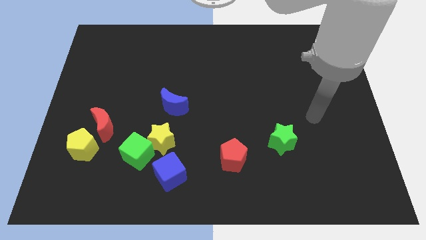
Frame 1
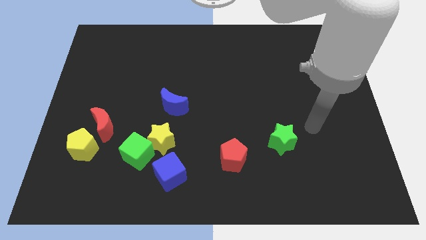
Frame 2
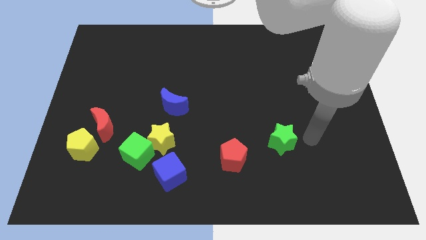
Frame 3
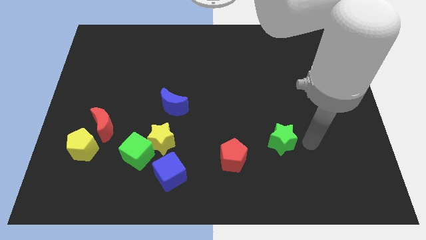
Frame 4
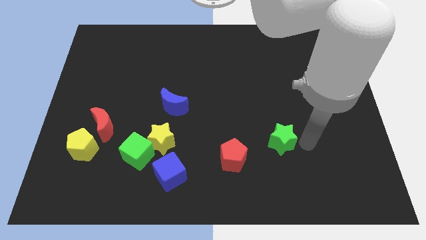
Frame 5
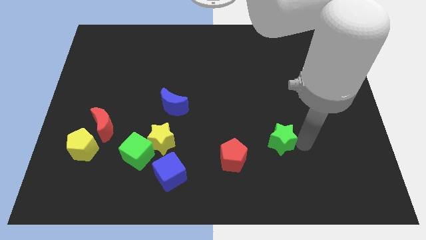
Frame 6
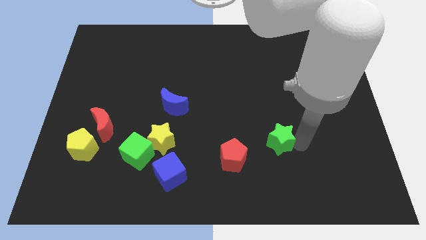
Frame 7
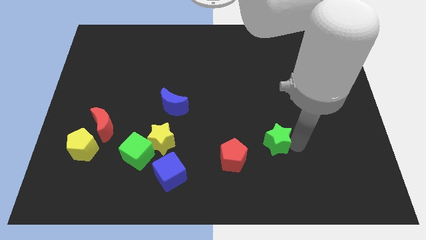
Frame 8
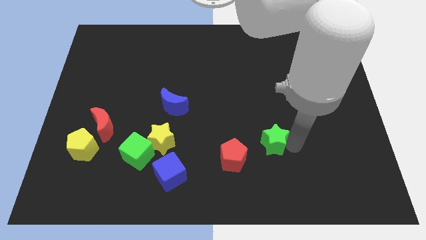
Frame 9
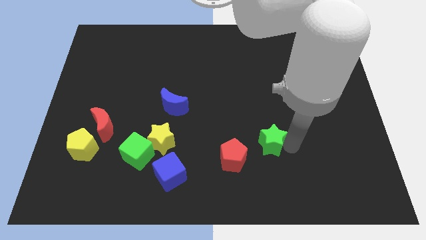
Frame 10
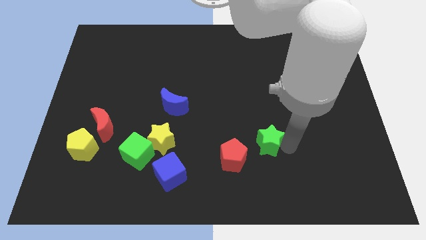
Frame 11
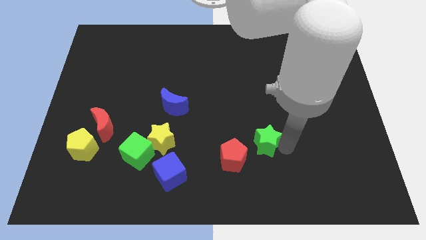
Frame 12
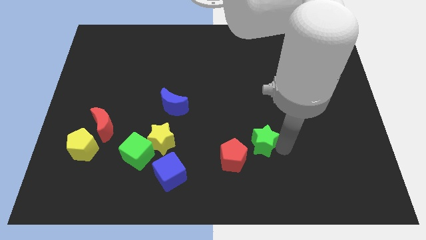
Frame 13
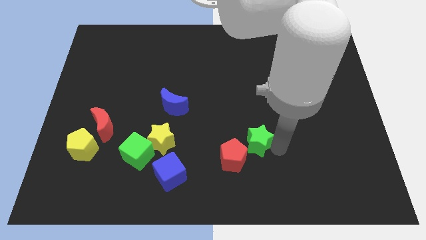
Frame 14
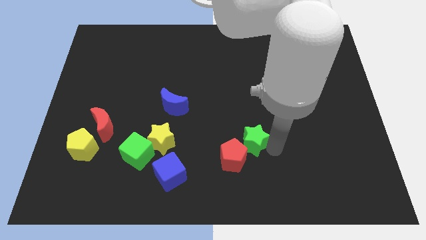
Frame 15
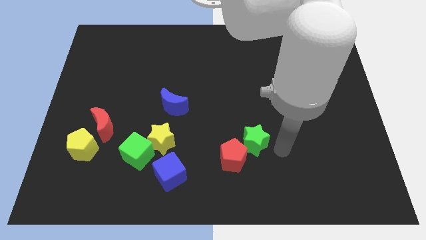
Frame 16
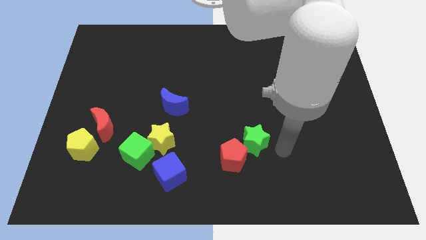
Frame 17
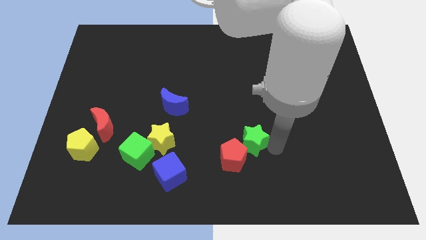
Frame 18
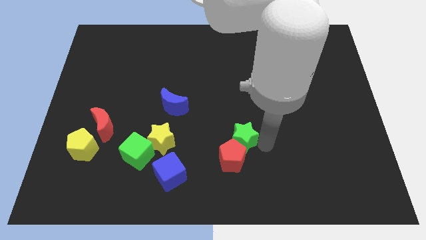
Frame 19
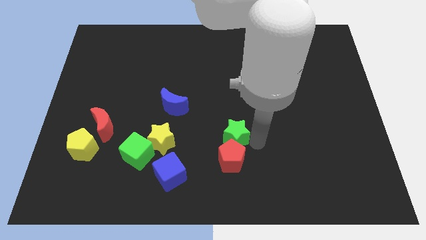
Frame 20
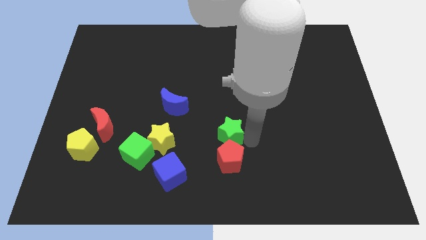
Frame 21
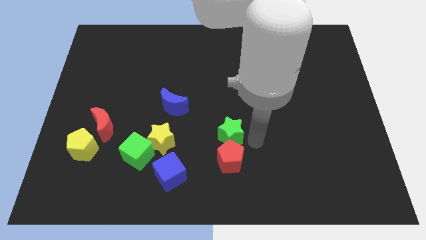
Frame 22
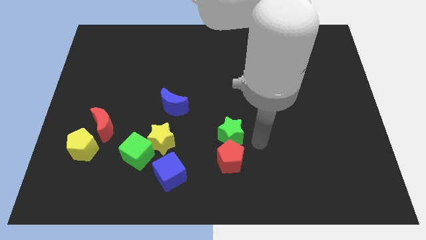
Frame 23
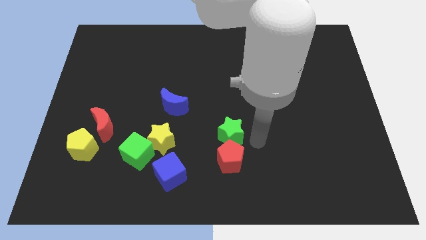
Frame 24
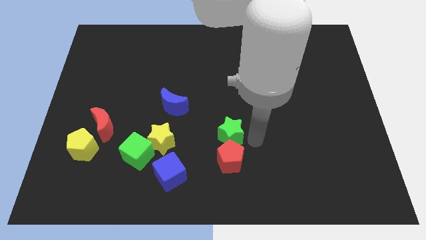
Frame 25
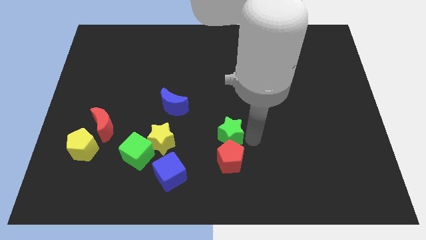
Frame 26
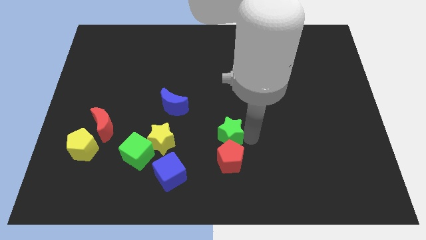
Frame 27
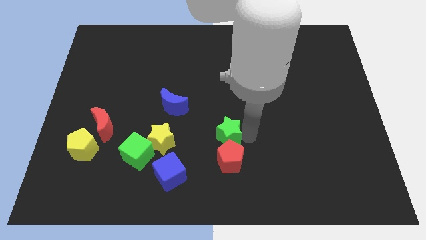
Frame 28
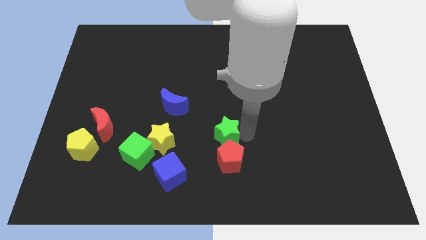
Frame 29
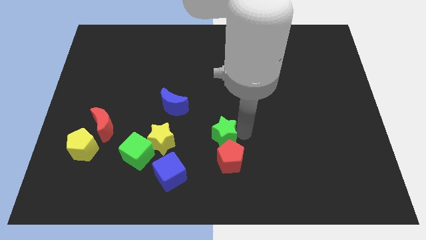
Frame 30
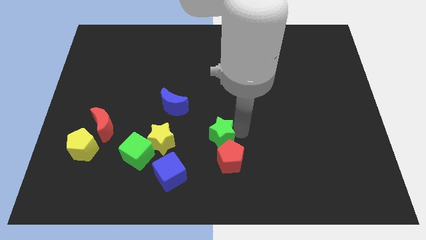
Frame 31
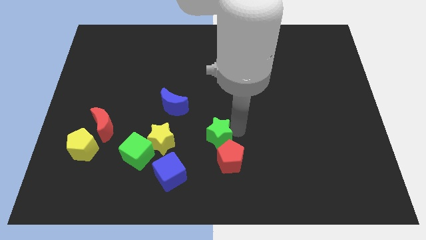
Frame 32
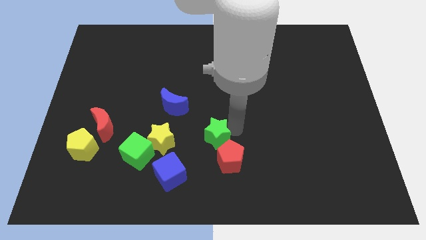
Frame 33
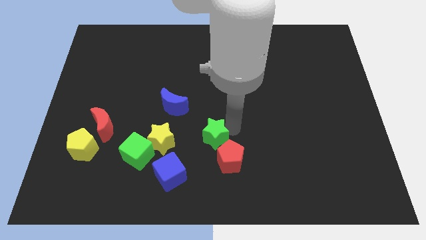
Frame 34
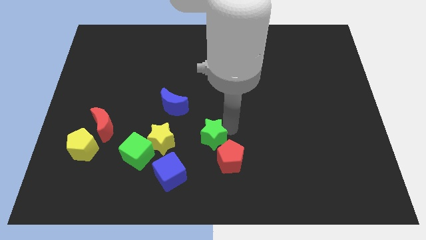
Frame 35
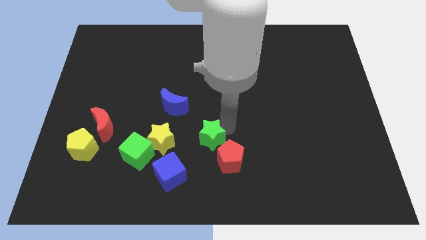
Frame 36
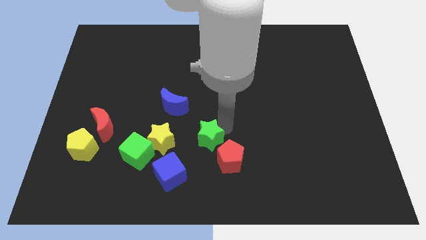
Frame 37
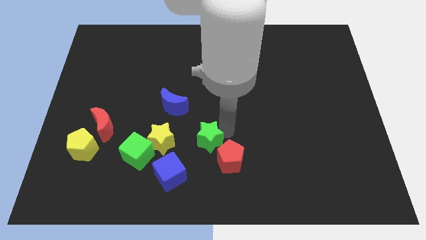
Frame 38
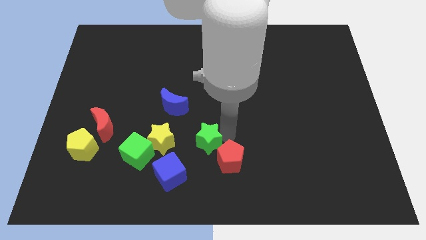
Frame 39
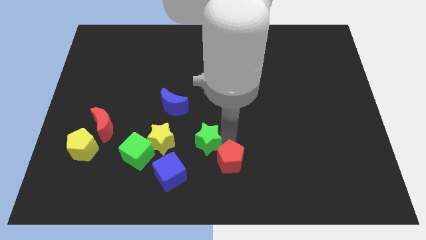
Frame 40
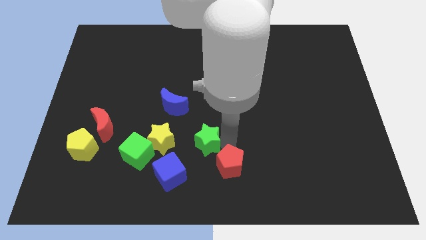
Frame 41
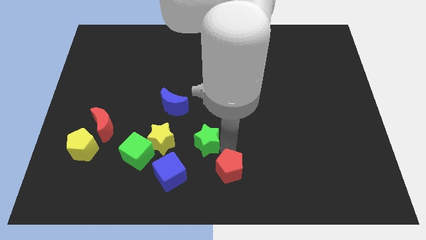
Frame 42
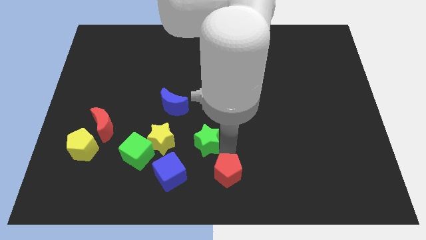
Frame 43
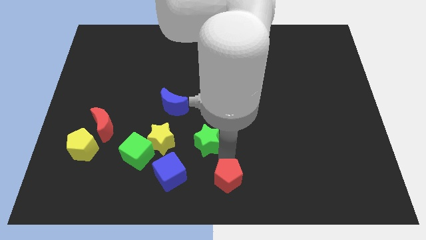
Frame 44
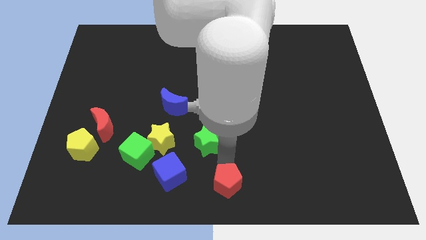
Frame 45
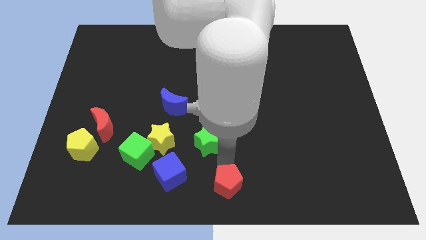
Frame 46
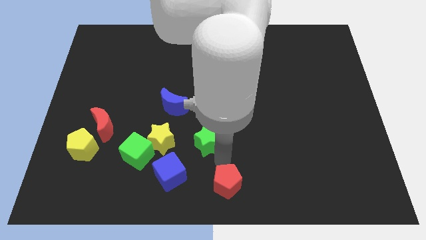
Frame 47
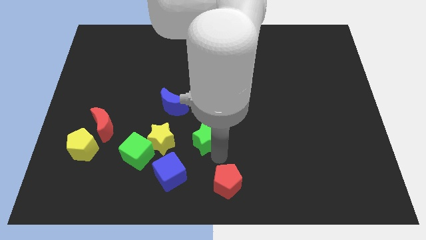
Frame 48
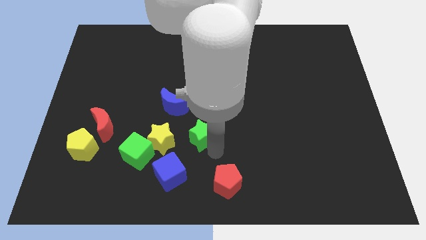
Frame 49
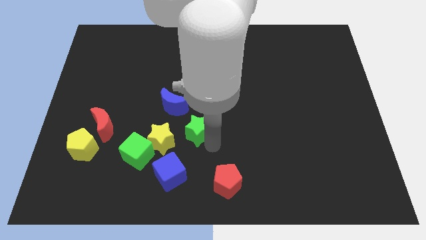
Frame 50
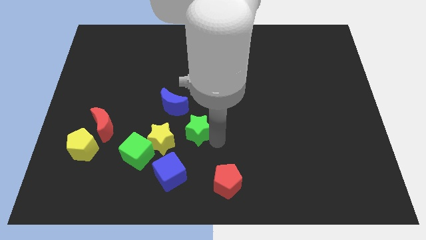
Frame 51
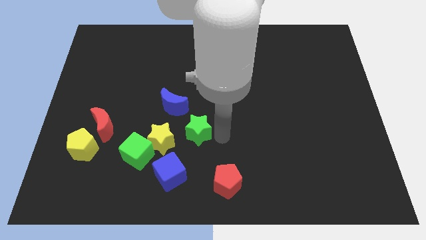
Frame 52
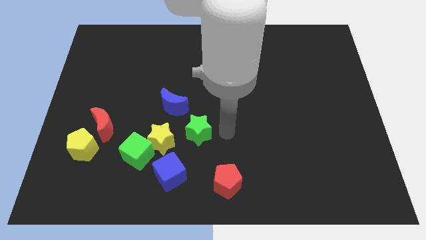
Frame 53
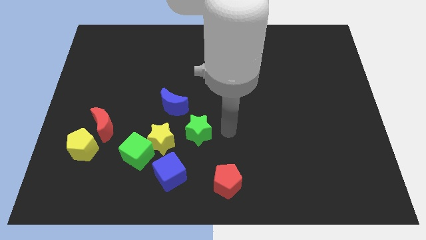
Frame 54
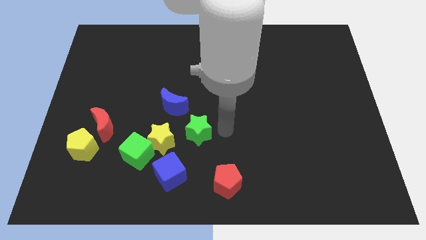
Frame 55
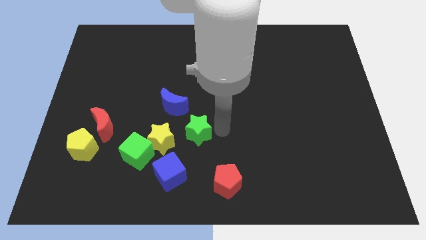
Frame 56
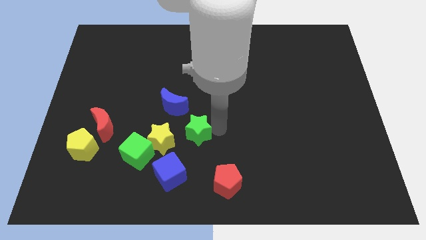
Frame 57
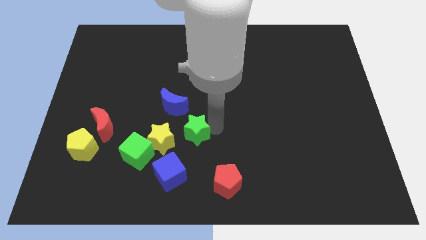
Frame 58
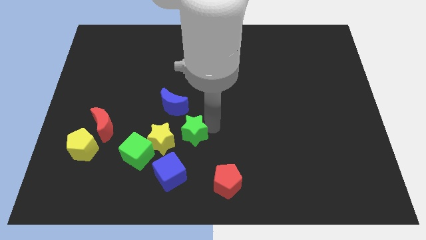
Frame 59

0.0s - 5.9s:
move the green star to the top of the blue cube
